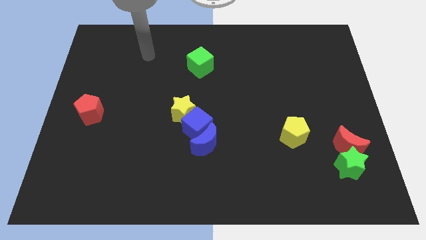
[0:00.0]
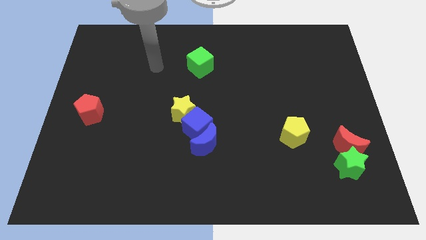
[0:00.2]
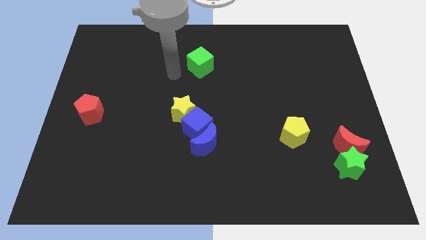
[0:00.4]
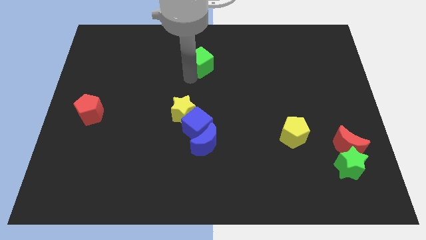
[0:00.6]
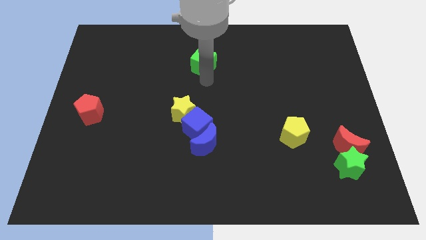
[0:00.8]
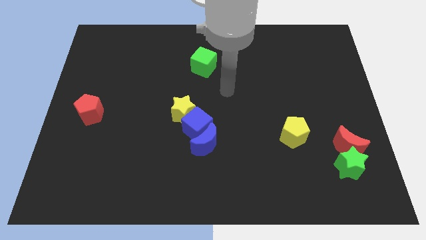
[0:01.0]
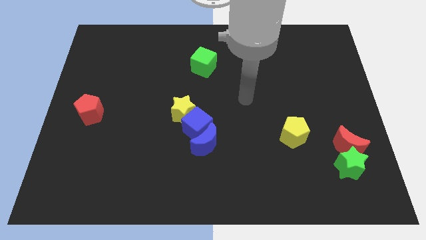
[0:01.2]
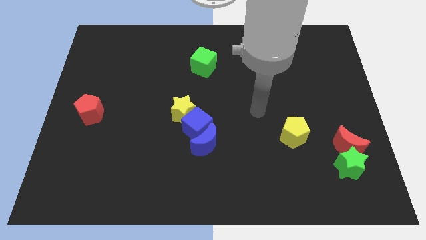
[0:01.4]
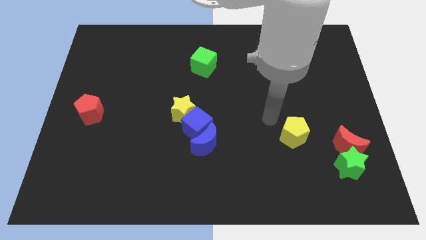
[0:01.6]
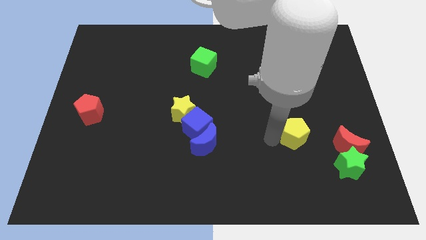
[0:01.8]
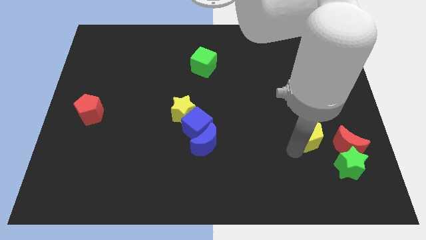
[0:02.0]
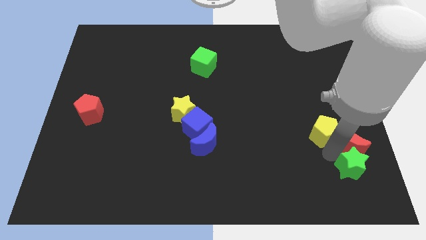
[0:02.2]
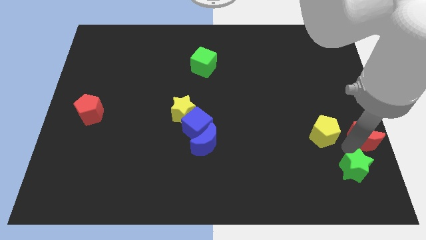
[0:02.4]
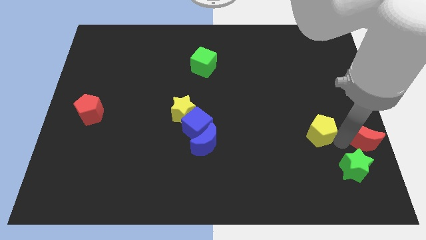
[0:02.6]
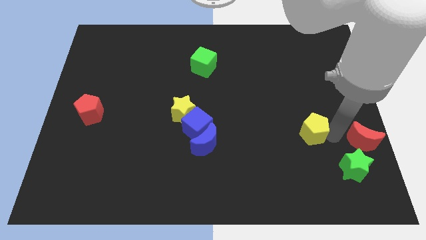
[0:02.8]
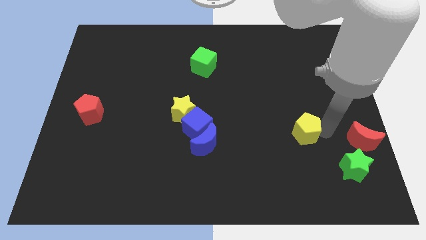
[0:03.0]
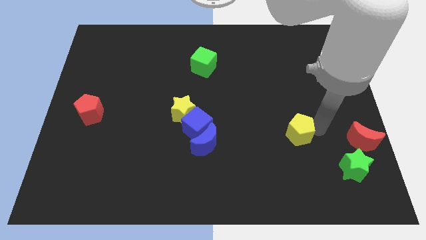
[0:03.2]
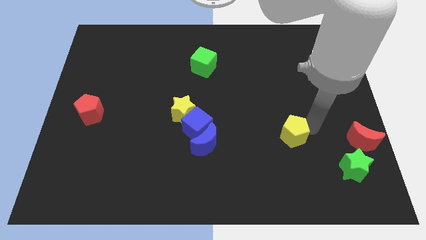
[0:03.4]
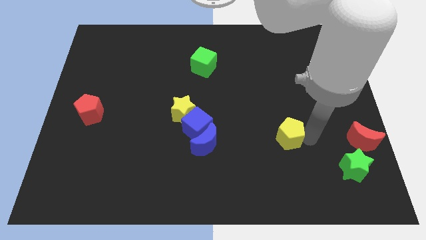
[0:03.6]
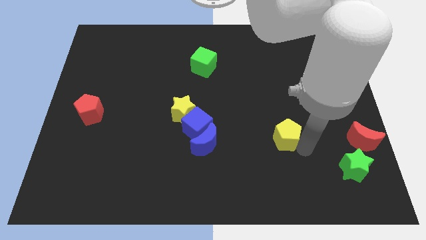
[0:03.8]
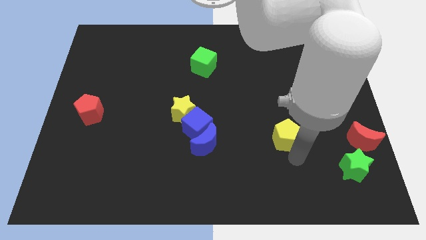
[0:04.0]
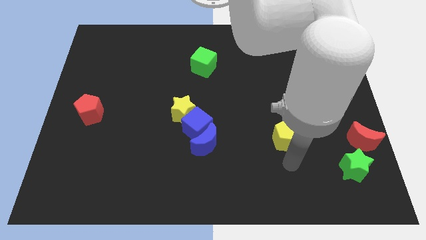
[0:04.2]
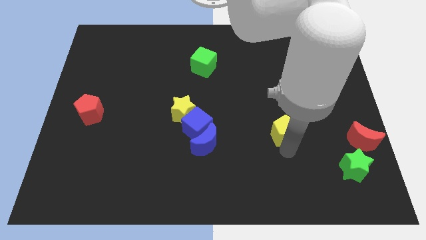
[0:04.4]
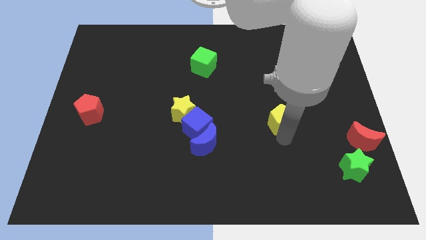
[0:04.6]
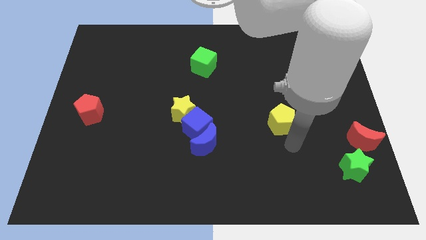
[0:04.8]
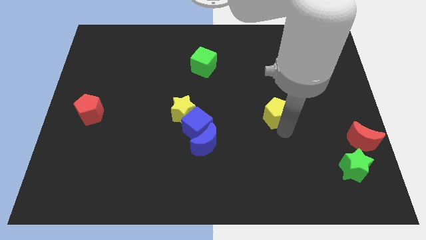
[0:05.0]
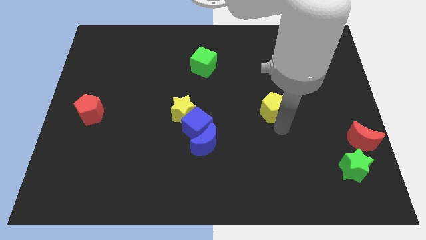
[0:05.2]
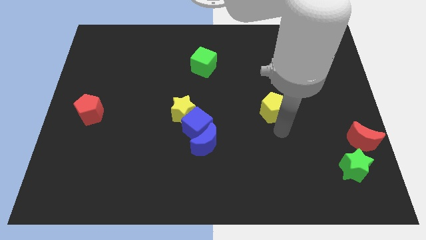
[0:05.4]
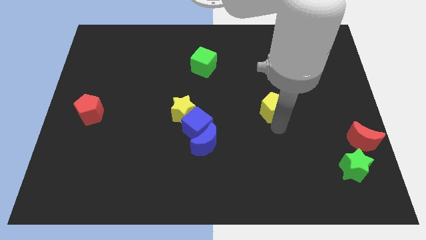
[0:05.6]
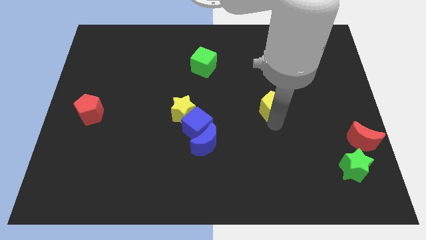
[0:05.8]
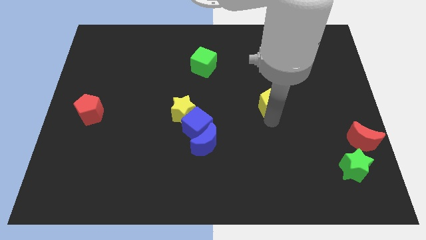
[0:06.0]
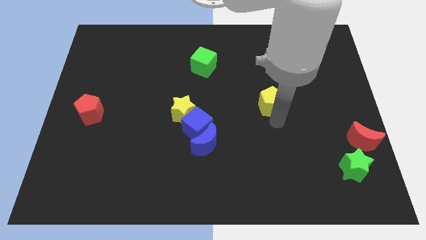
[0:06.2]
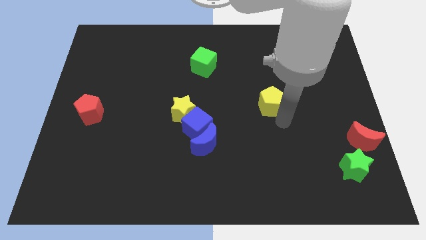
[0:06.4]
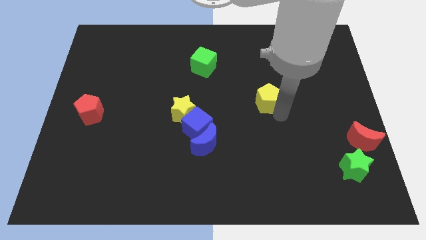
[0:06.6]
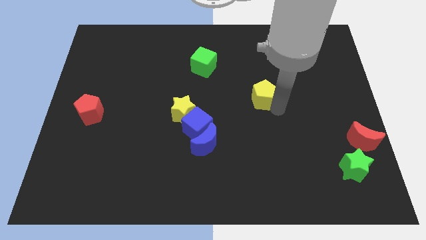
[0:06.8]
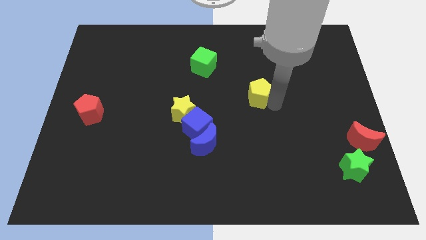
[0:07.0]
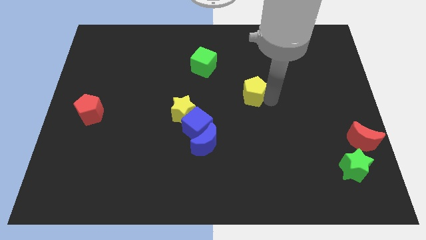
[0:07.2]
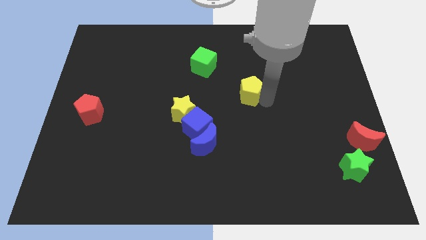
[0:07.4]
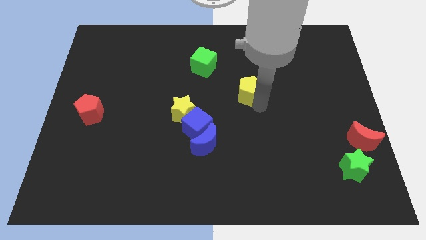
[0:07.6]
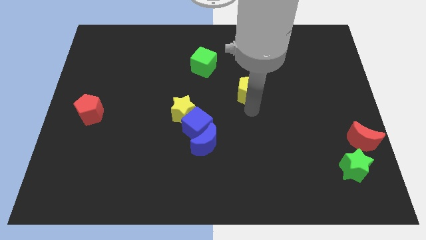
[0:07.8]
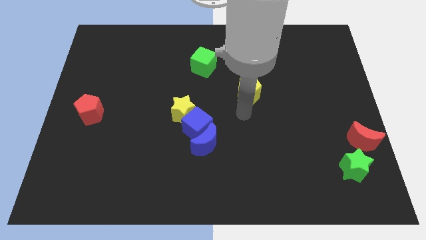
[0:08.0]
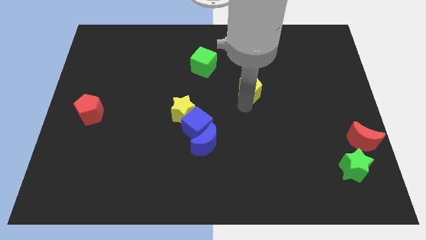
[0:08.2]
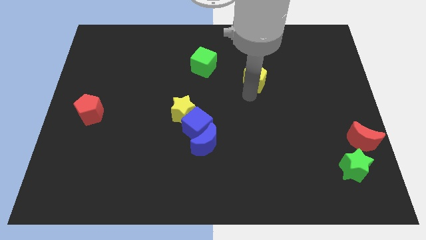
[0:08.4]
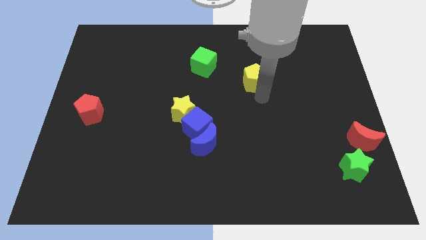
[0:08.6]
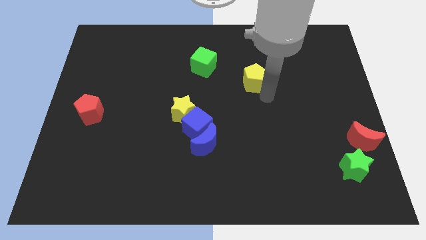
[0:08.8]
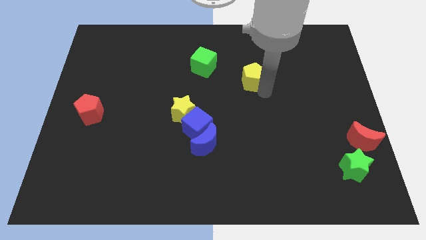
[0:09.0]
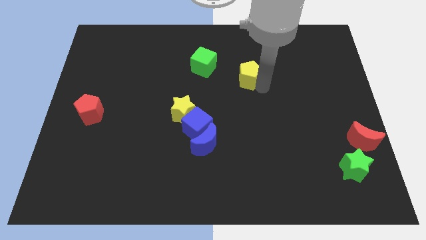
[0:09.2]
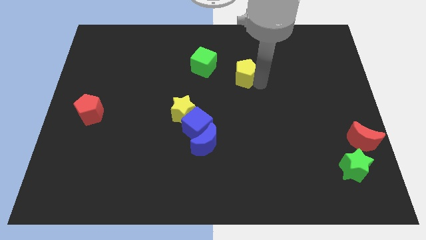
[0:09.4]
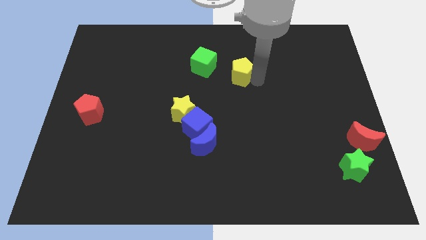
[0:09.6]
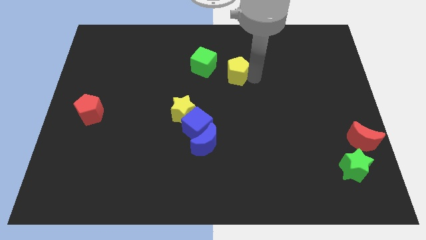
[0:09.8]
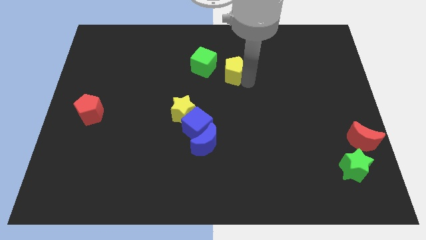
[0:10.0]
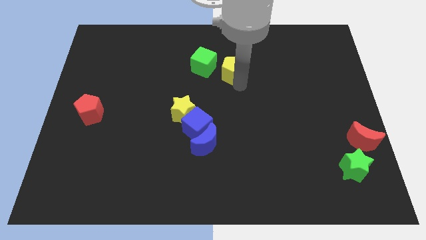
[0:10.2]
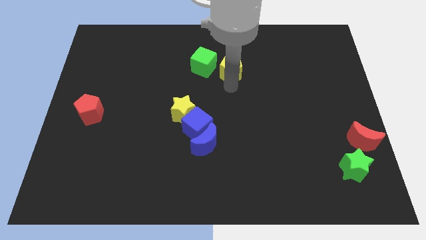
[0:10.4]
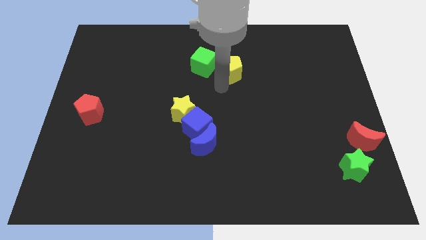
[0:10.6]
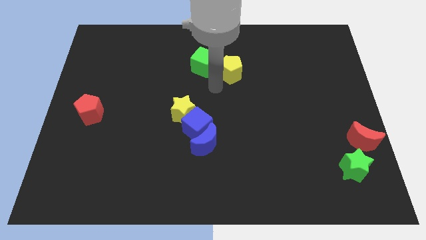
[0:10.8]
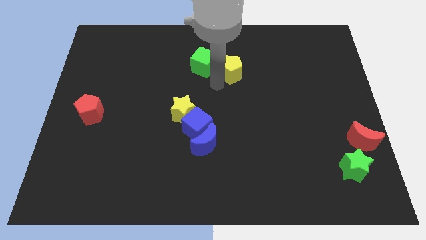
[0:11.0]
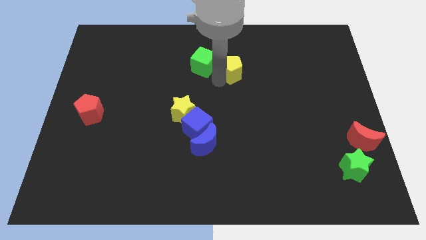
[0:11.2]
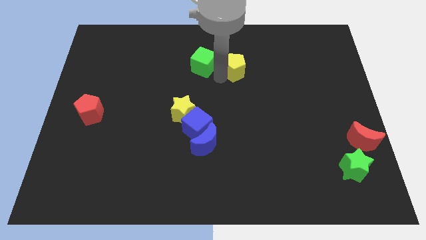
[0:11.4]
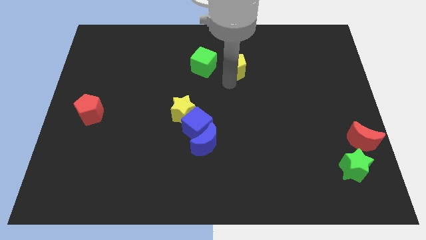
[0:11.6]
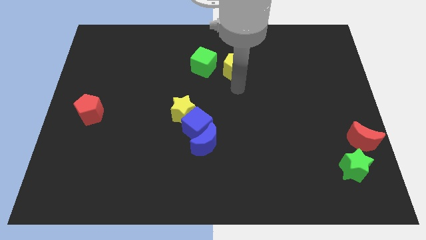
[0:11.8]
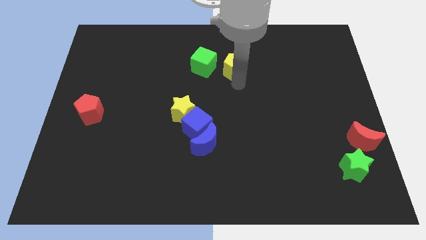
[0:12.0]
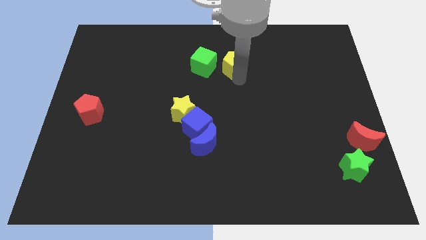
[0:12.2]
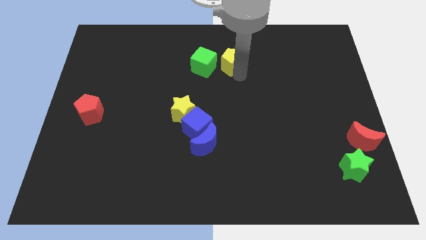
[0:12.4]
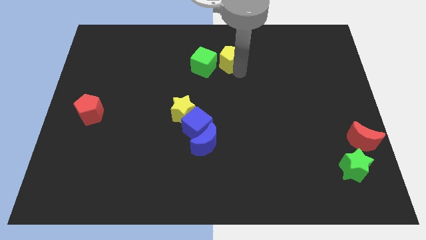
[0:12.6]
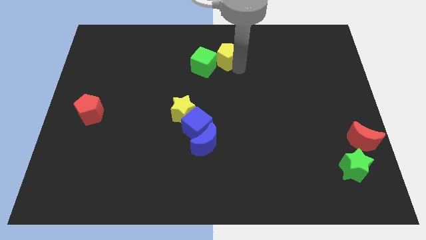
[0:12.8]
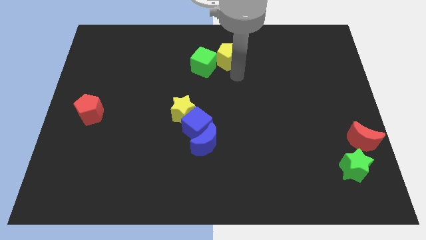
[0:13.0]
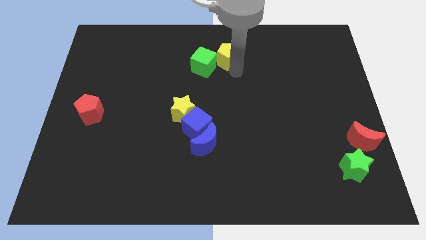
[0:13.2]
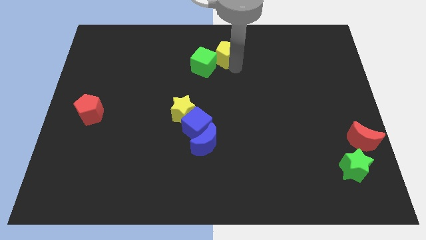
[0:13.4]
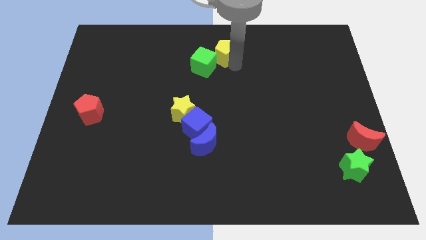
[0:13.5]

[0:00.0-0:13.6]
push the yellow pentagon to the top
